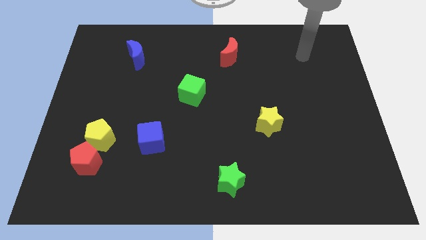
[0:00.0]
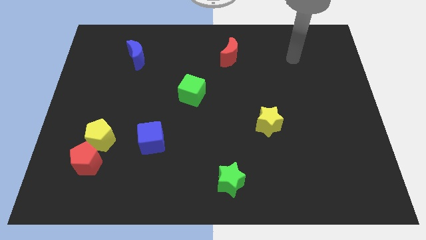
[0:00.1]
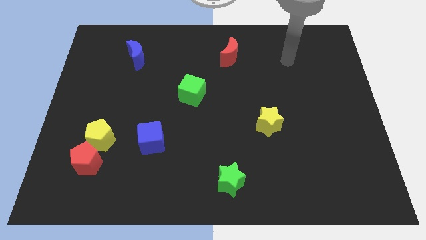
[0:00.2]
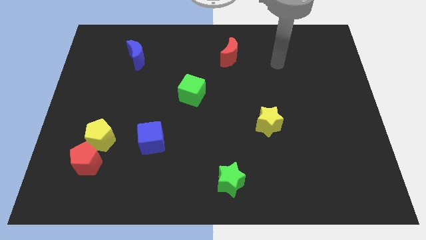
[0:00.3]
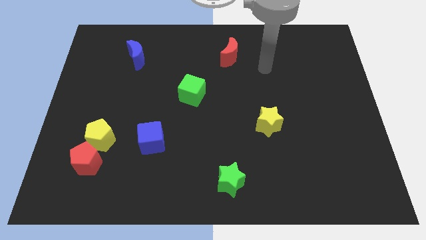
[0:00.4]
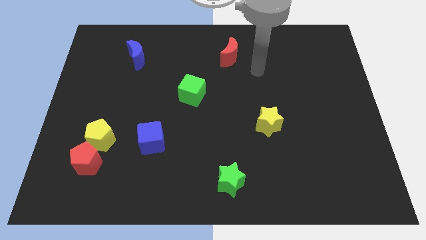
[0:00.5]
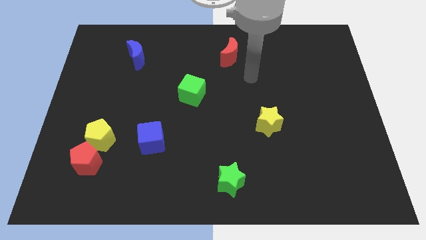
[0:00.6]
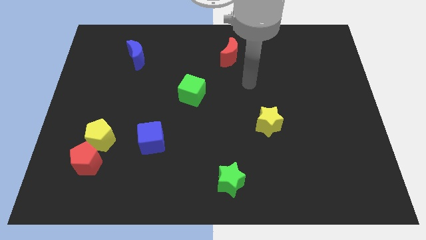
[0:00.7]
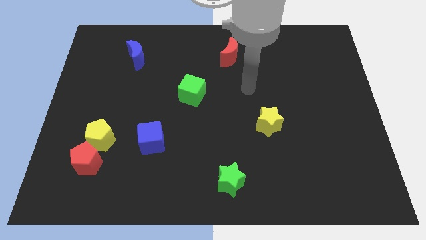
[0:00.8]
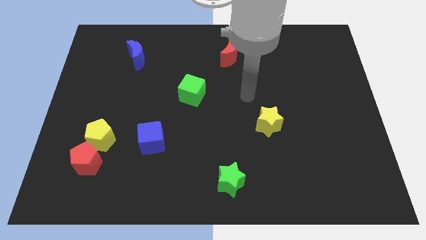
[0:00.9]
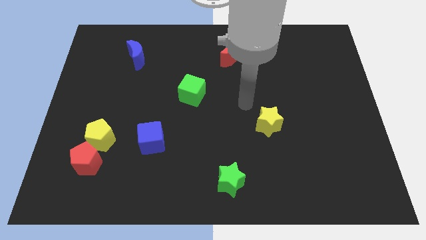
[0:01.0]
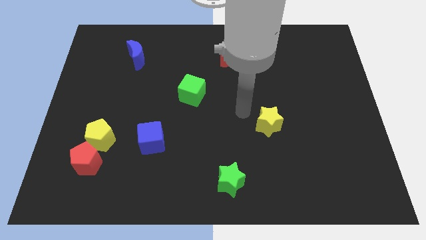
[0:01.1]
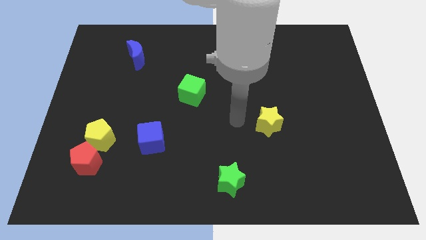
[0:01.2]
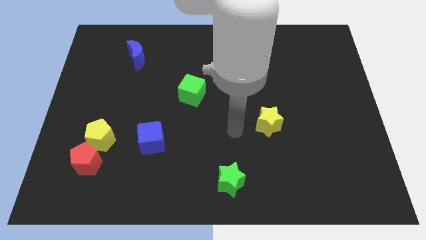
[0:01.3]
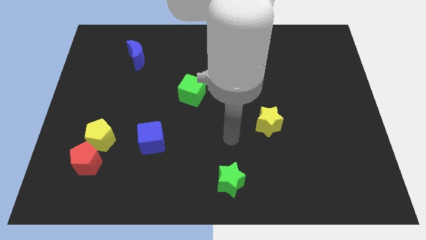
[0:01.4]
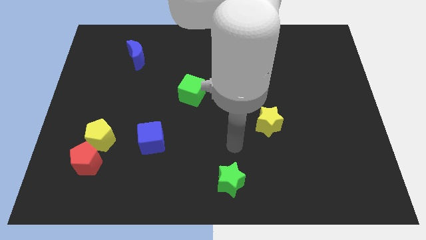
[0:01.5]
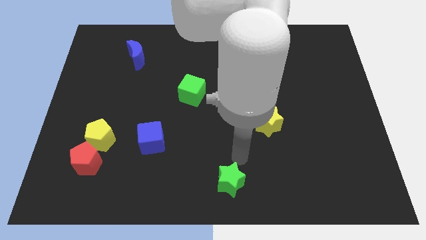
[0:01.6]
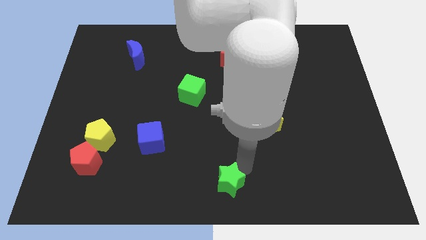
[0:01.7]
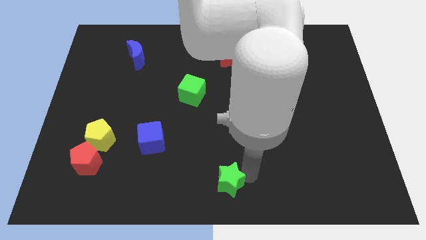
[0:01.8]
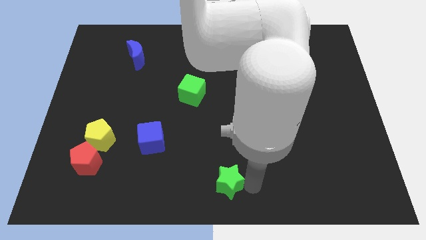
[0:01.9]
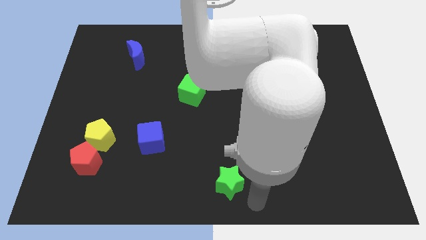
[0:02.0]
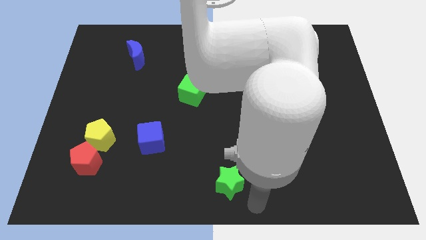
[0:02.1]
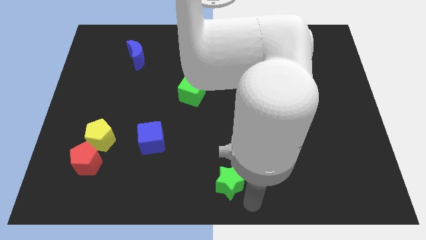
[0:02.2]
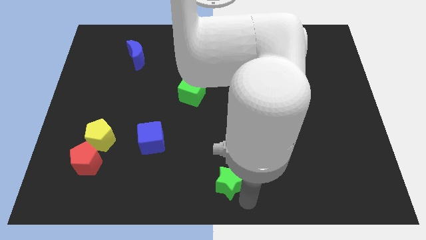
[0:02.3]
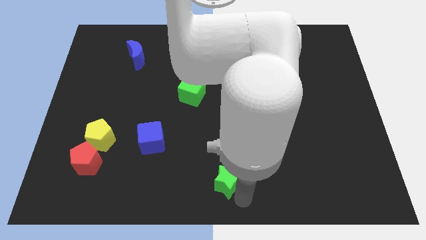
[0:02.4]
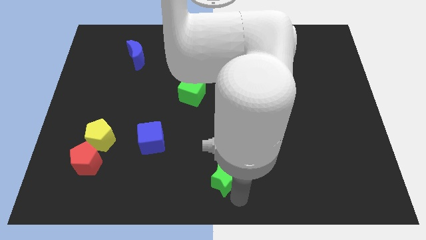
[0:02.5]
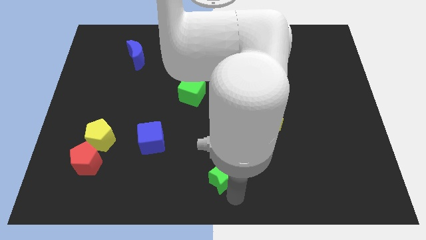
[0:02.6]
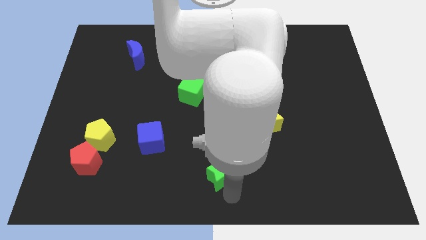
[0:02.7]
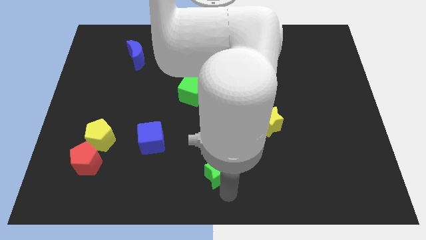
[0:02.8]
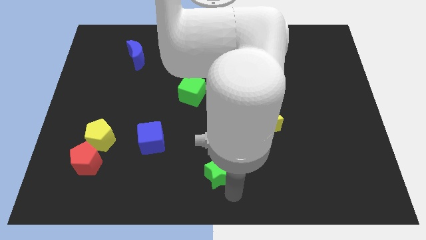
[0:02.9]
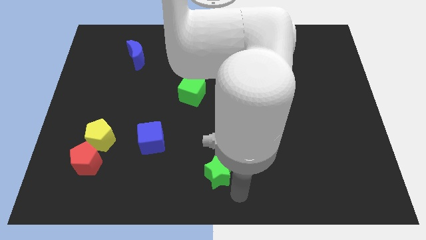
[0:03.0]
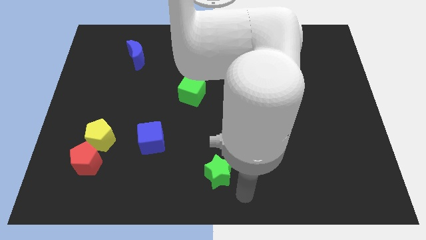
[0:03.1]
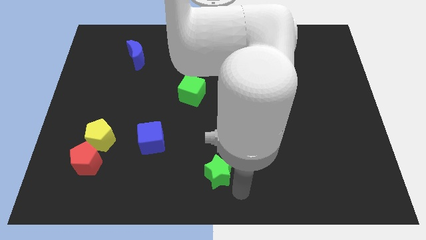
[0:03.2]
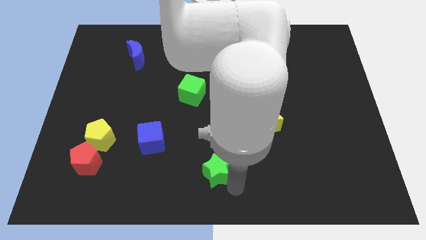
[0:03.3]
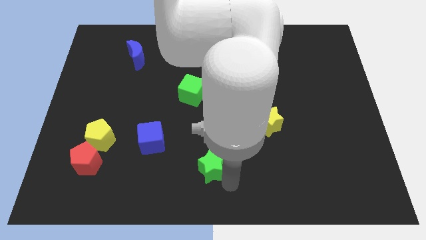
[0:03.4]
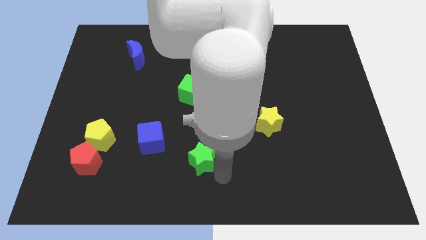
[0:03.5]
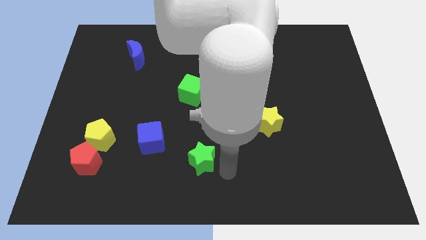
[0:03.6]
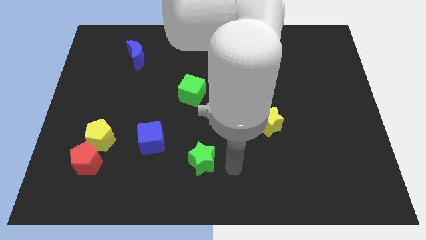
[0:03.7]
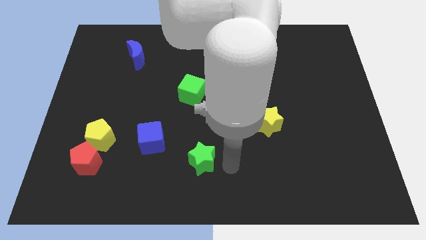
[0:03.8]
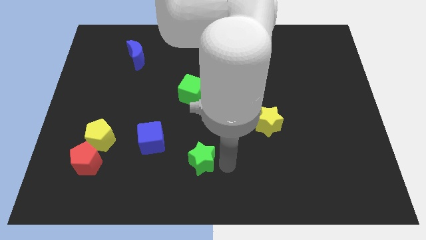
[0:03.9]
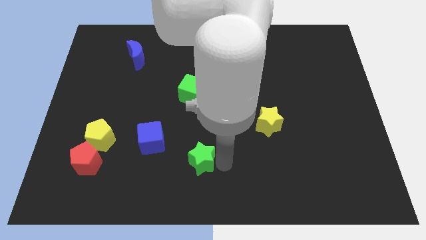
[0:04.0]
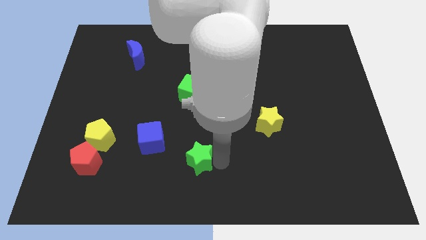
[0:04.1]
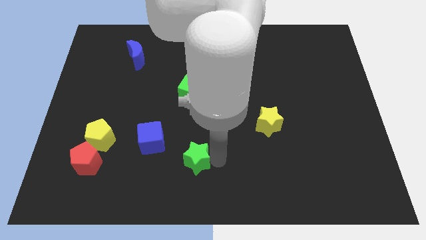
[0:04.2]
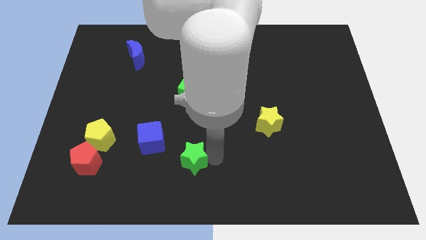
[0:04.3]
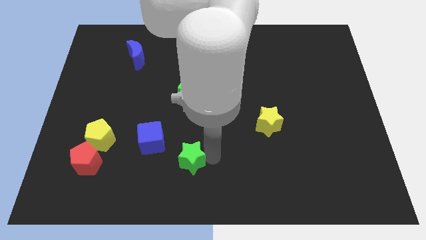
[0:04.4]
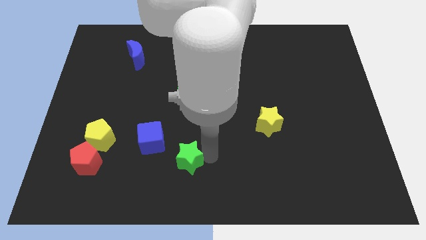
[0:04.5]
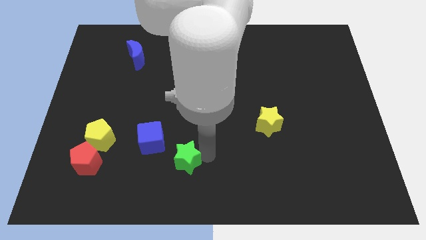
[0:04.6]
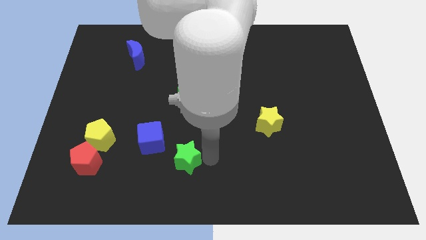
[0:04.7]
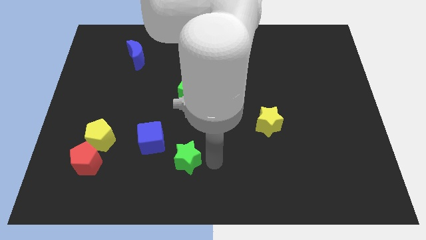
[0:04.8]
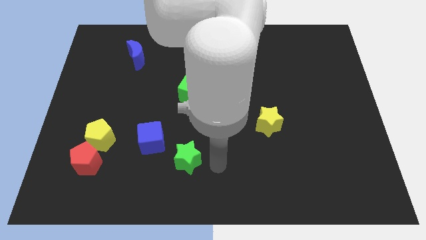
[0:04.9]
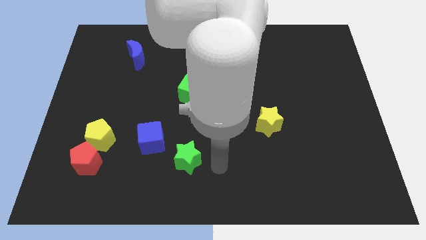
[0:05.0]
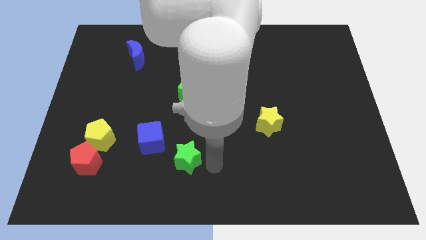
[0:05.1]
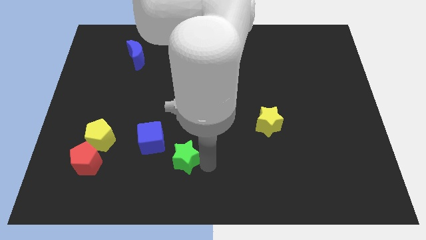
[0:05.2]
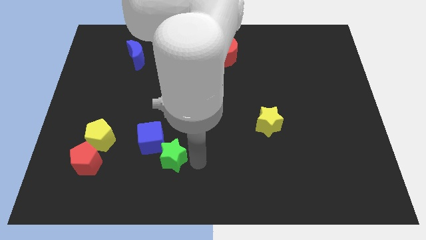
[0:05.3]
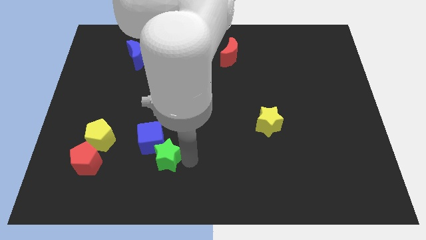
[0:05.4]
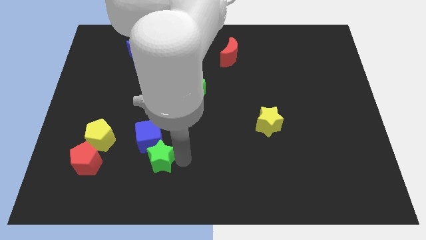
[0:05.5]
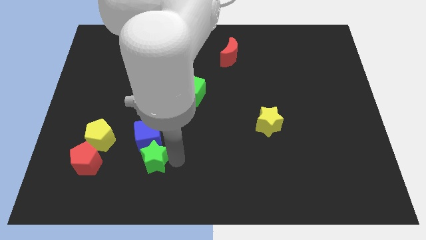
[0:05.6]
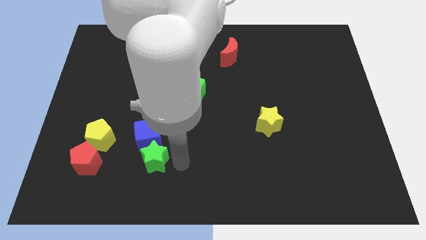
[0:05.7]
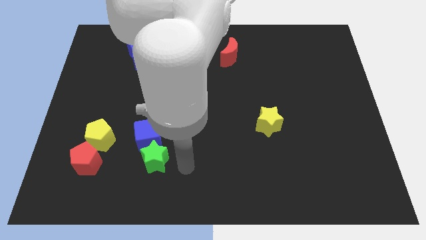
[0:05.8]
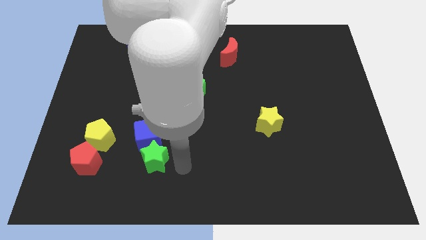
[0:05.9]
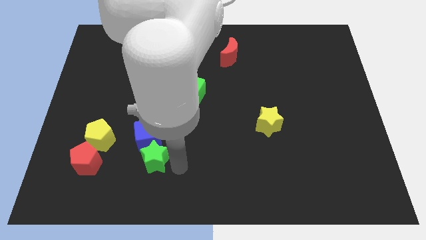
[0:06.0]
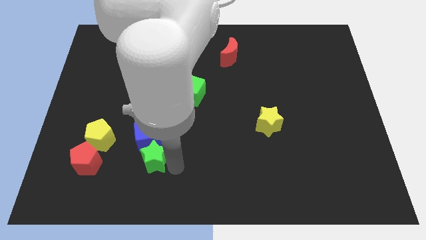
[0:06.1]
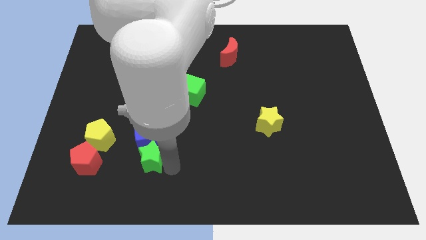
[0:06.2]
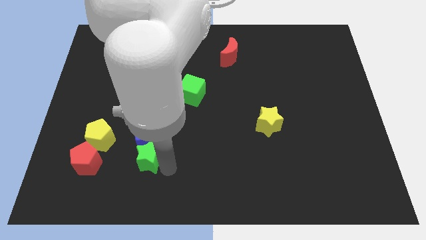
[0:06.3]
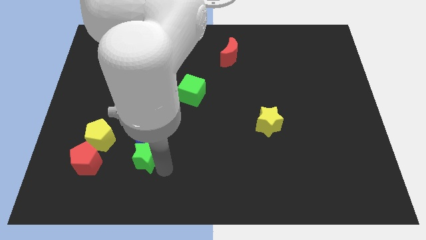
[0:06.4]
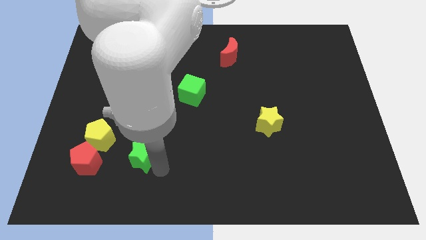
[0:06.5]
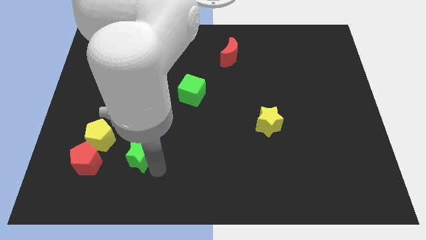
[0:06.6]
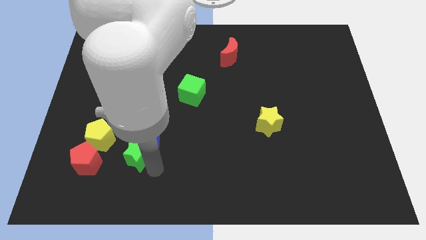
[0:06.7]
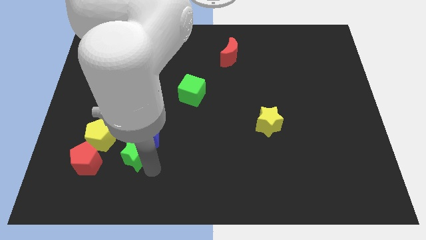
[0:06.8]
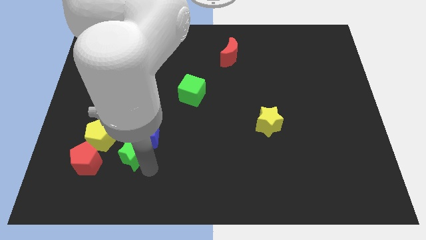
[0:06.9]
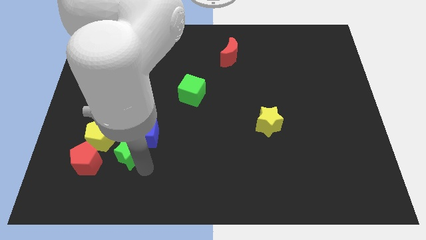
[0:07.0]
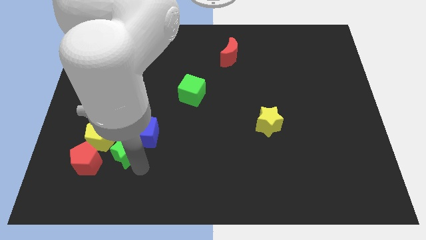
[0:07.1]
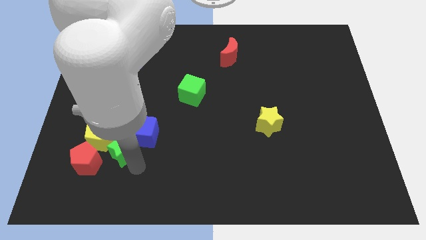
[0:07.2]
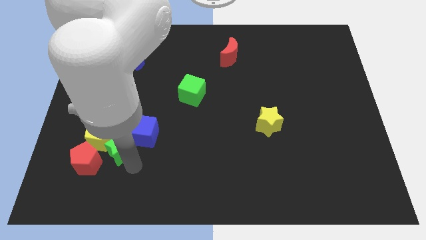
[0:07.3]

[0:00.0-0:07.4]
push the green star close to the yellow pentagon
